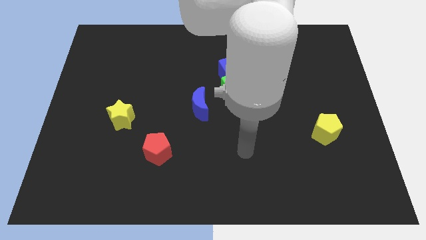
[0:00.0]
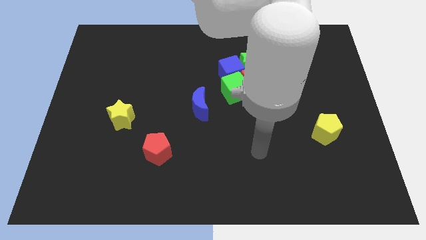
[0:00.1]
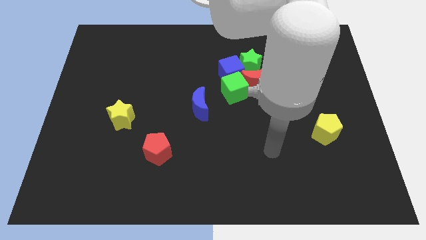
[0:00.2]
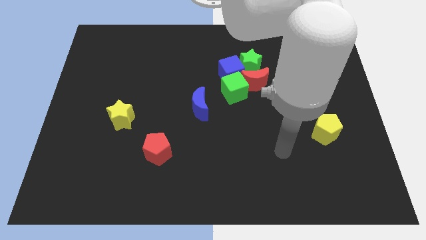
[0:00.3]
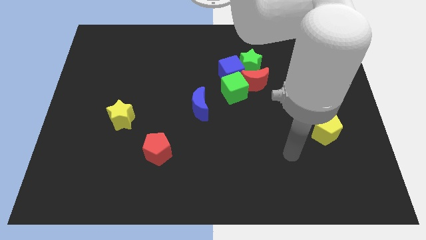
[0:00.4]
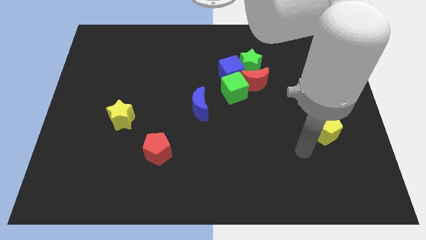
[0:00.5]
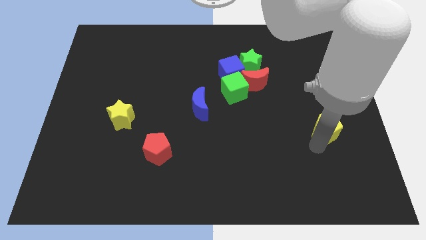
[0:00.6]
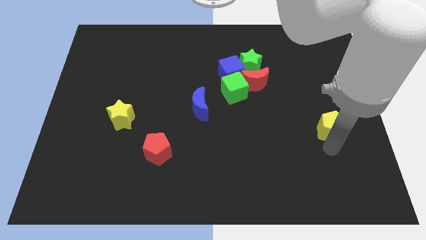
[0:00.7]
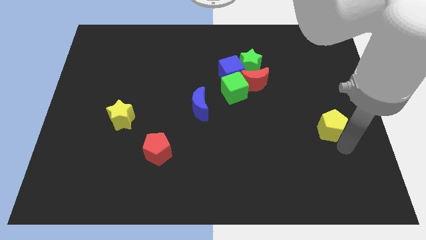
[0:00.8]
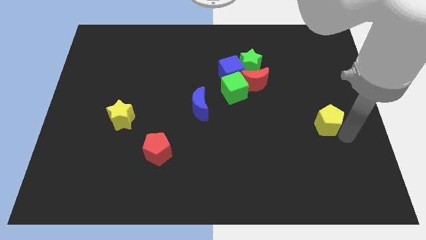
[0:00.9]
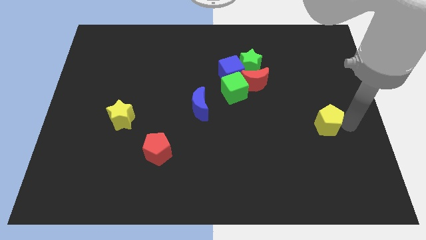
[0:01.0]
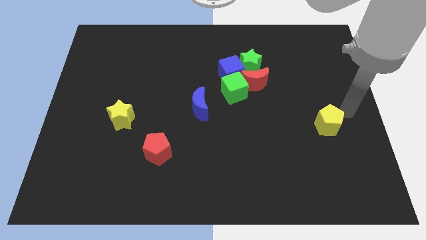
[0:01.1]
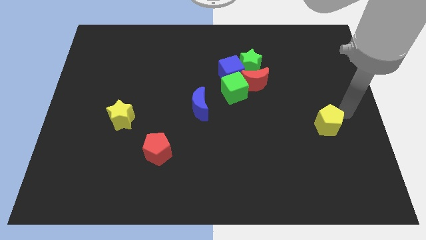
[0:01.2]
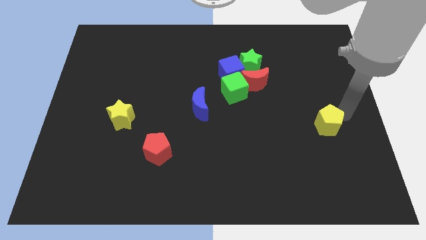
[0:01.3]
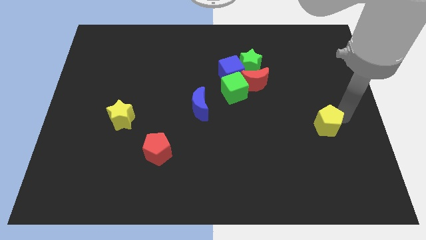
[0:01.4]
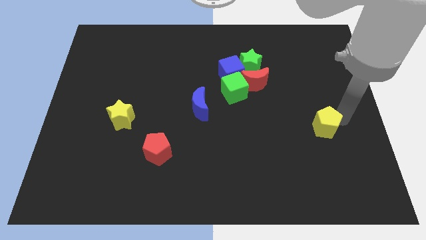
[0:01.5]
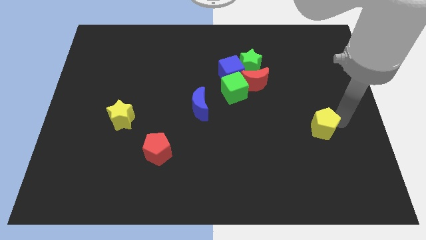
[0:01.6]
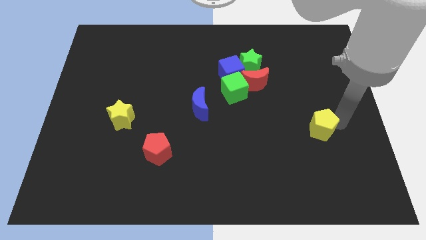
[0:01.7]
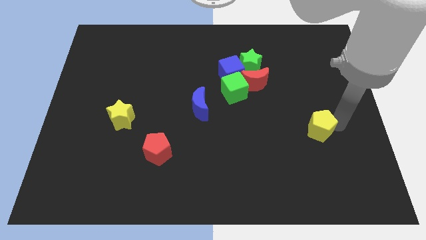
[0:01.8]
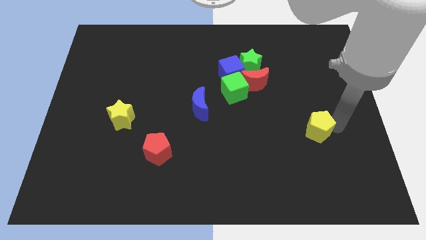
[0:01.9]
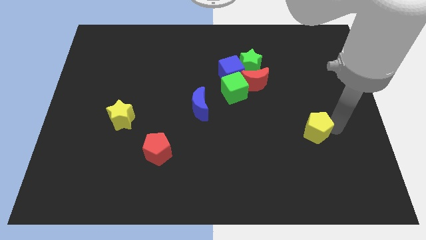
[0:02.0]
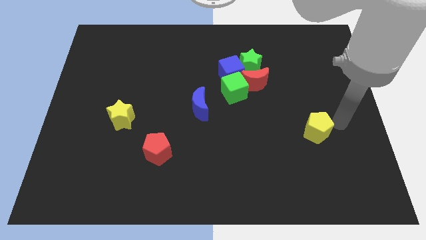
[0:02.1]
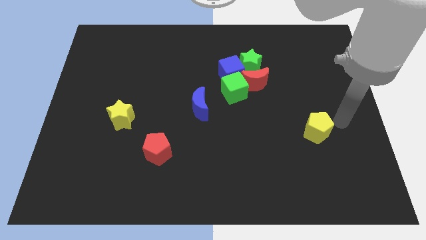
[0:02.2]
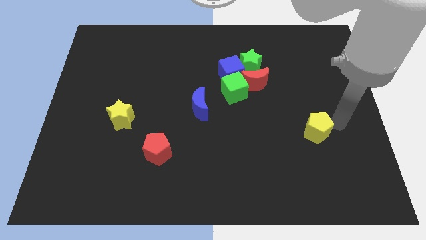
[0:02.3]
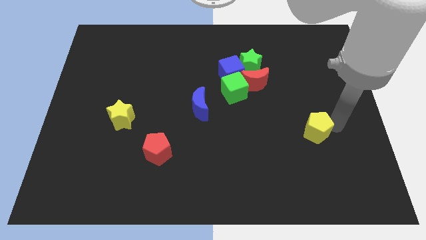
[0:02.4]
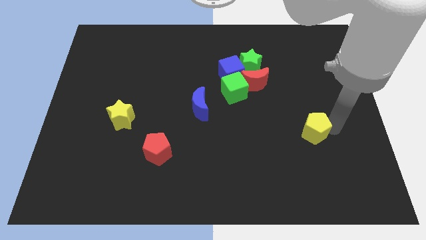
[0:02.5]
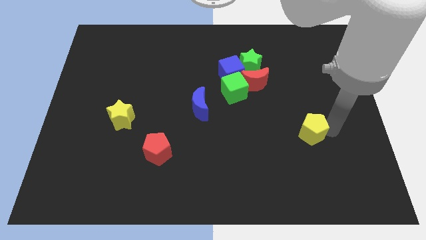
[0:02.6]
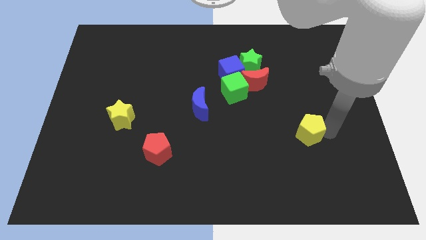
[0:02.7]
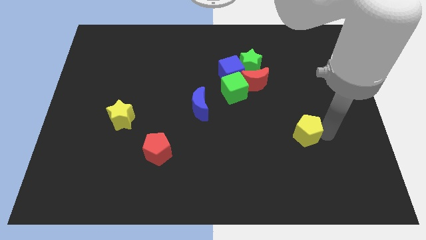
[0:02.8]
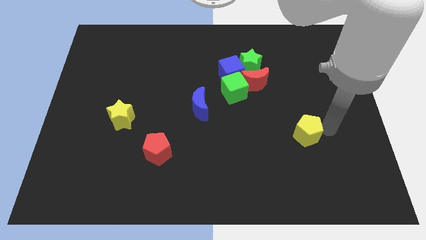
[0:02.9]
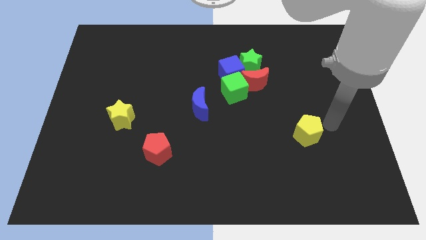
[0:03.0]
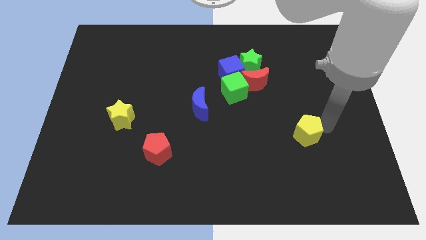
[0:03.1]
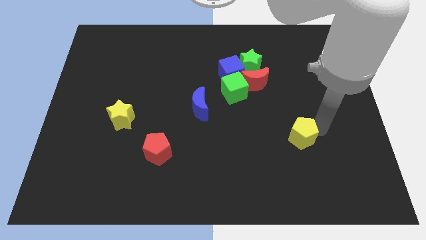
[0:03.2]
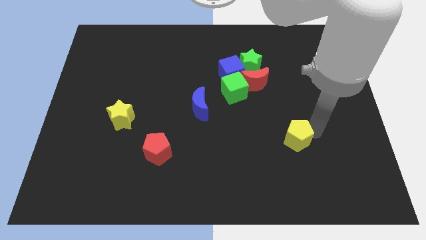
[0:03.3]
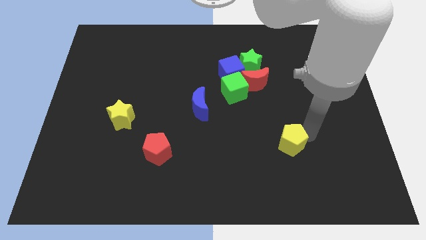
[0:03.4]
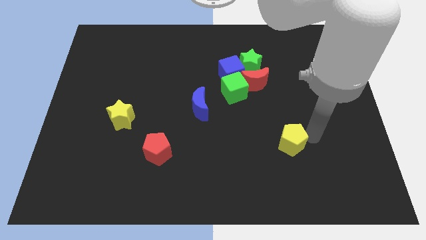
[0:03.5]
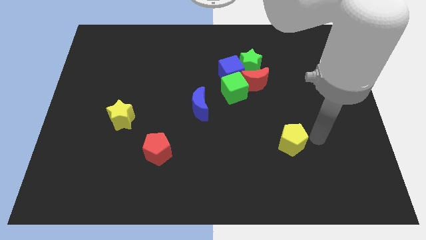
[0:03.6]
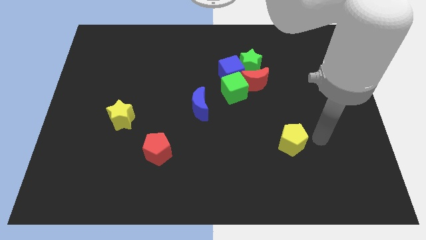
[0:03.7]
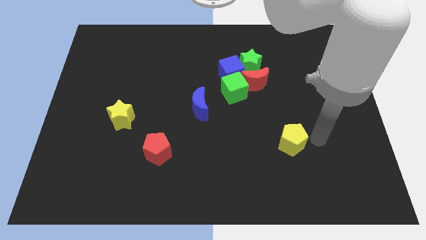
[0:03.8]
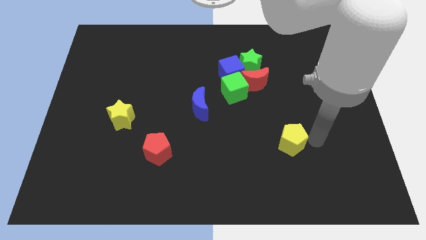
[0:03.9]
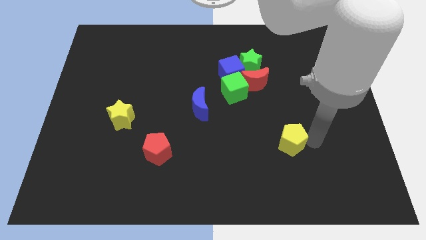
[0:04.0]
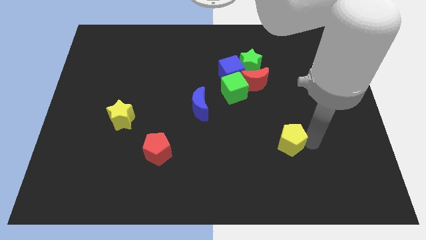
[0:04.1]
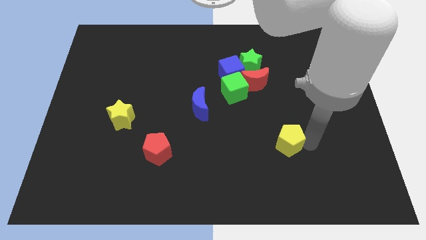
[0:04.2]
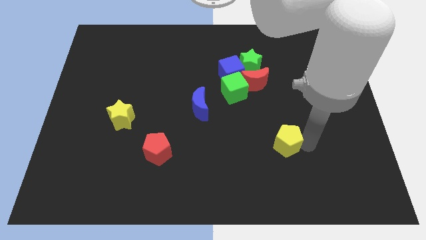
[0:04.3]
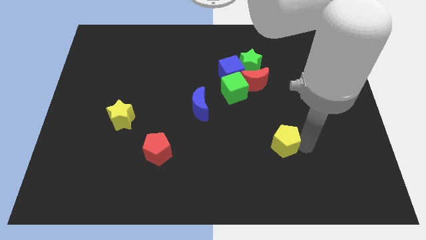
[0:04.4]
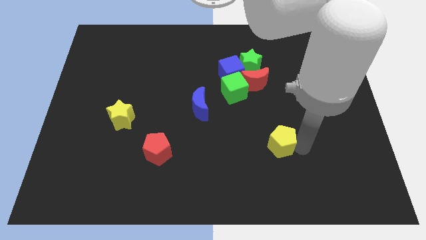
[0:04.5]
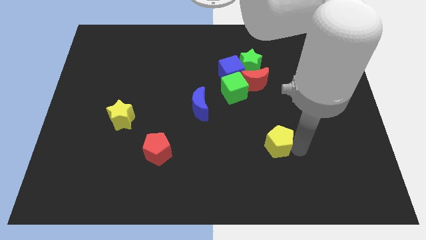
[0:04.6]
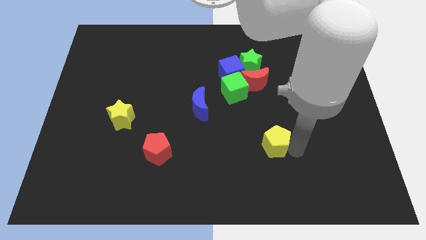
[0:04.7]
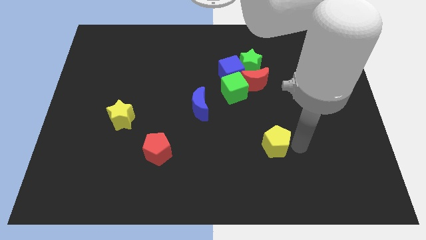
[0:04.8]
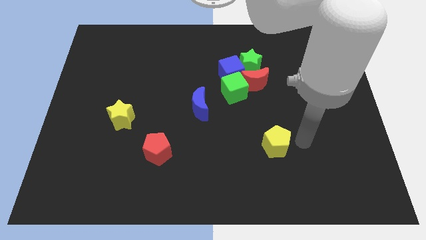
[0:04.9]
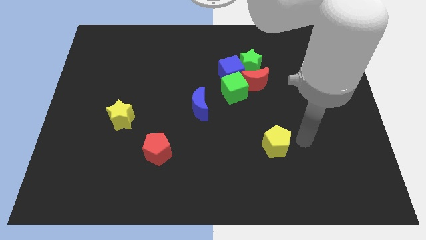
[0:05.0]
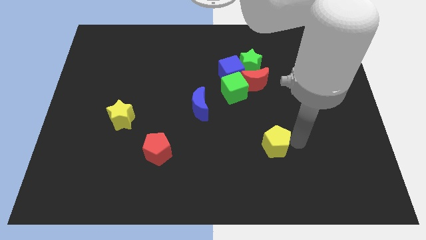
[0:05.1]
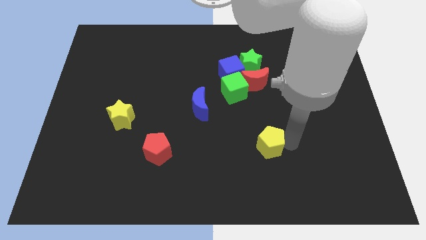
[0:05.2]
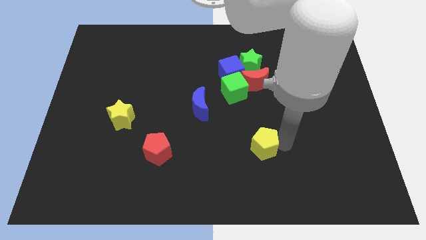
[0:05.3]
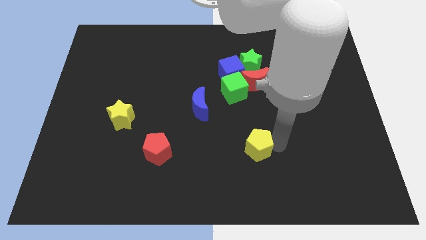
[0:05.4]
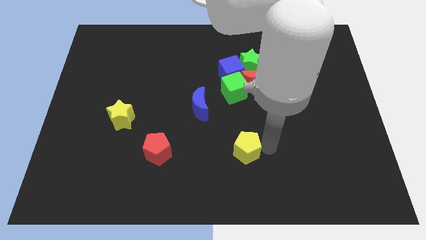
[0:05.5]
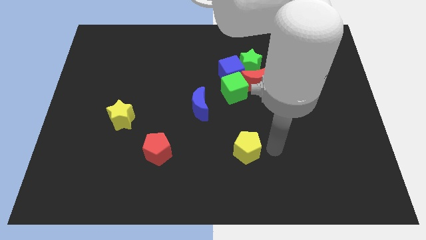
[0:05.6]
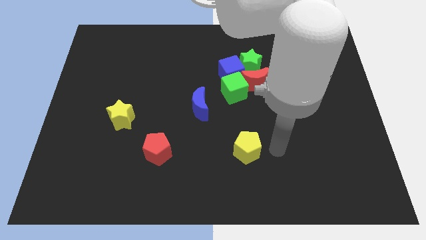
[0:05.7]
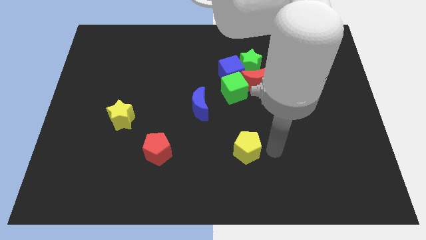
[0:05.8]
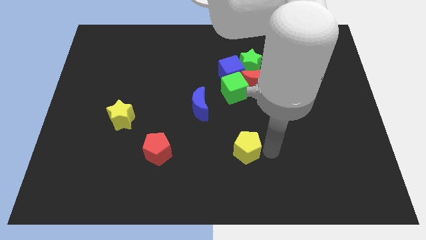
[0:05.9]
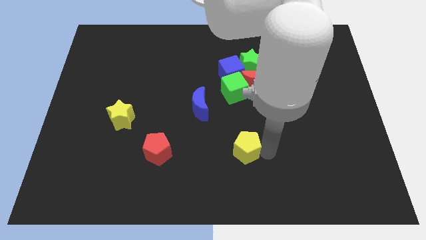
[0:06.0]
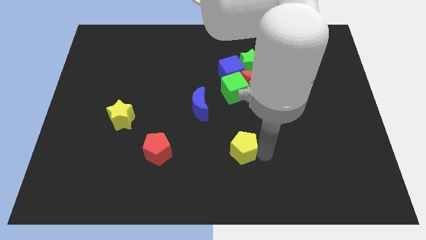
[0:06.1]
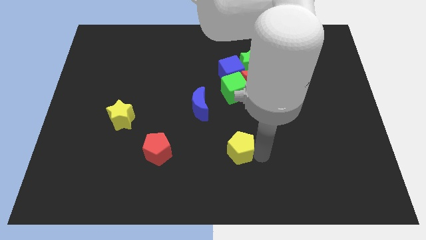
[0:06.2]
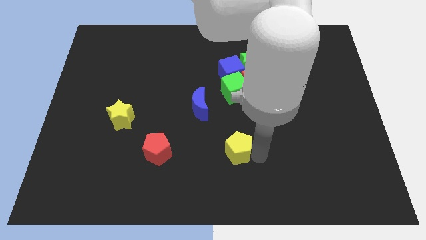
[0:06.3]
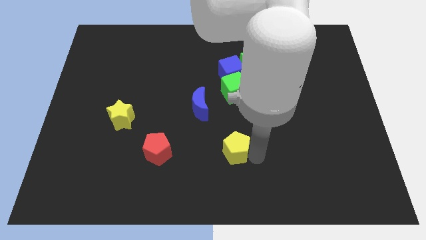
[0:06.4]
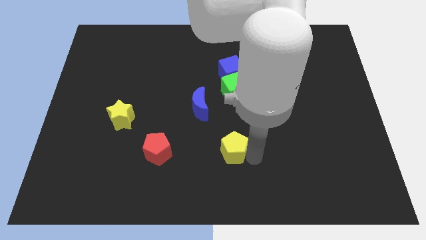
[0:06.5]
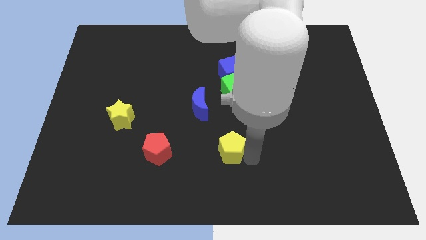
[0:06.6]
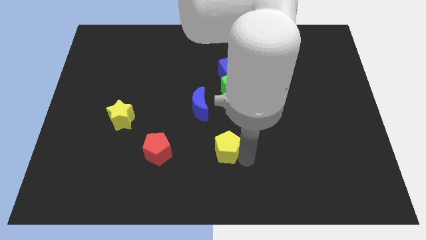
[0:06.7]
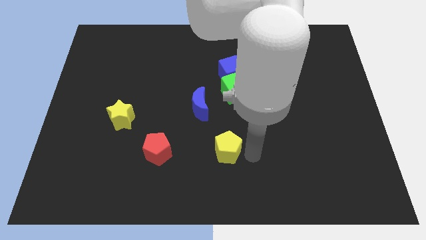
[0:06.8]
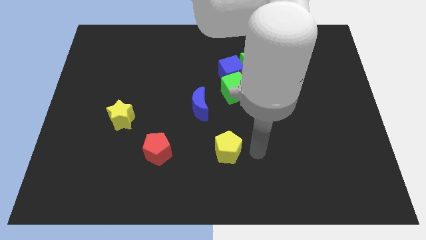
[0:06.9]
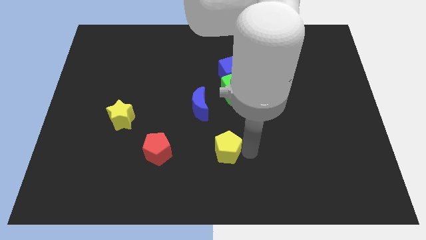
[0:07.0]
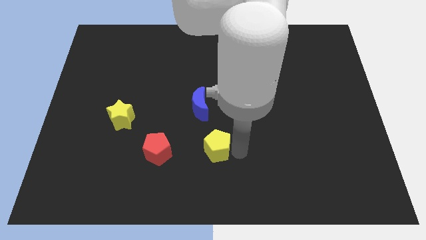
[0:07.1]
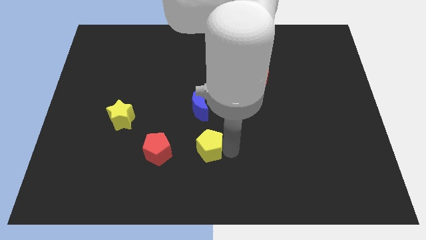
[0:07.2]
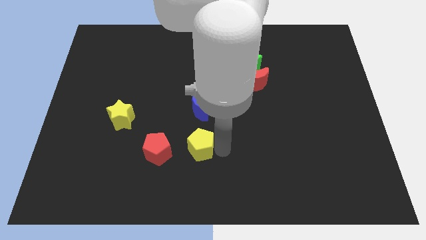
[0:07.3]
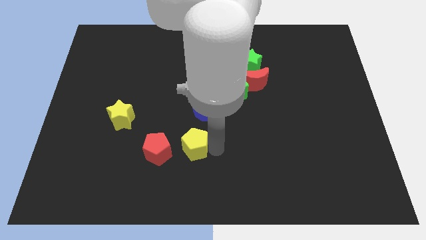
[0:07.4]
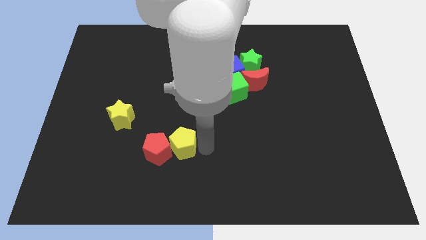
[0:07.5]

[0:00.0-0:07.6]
put the yellow pentagon next to the red pentagon

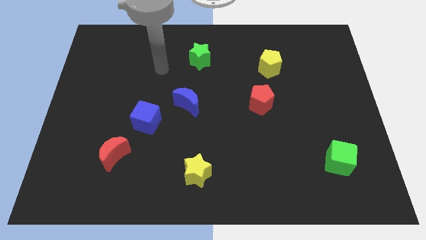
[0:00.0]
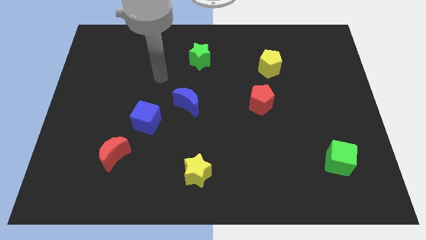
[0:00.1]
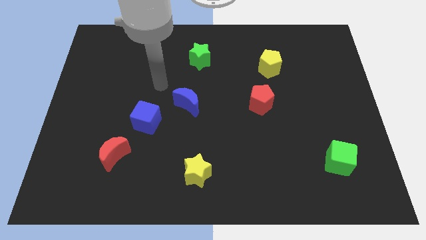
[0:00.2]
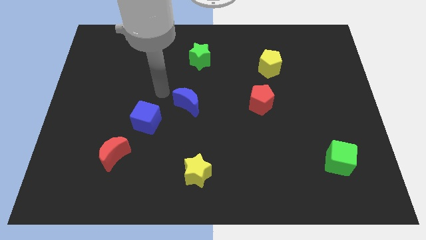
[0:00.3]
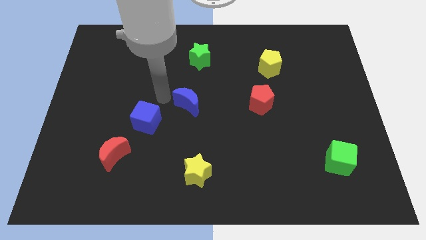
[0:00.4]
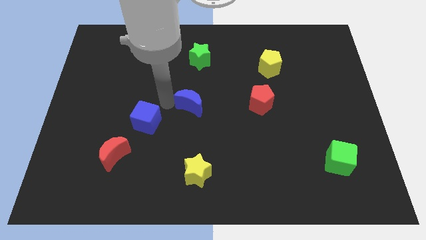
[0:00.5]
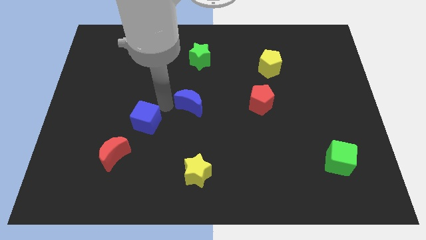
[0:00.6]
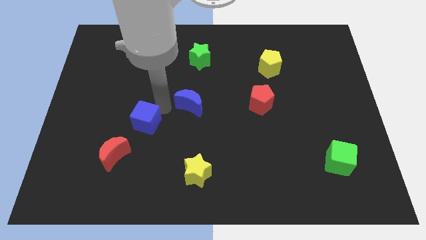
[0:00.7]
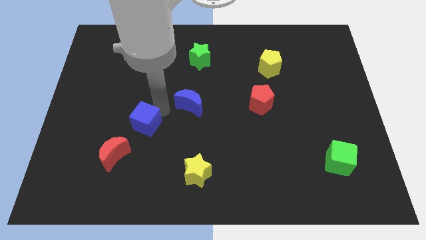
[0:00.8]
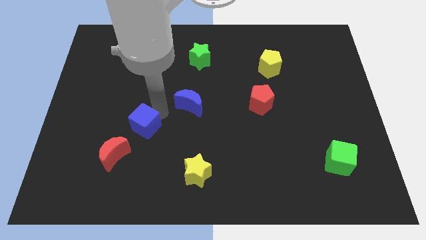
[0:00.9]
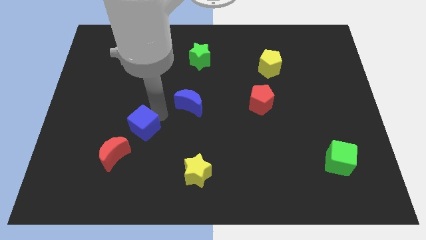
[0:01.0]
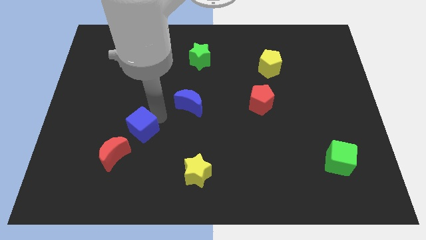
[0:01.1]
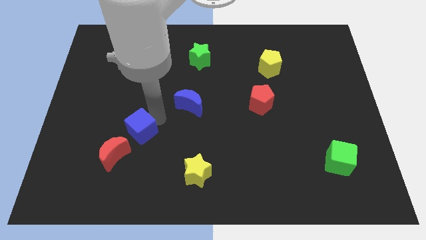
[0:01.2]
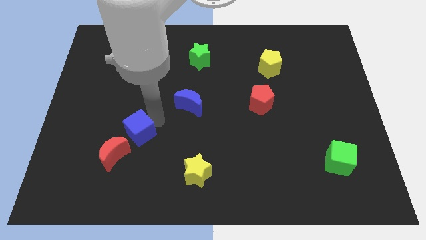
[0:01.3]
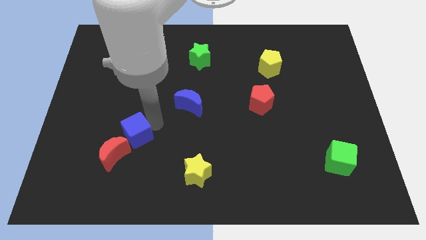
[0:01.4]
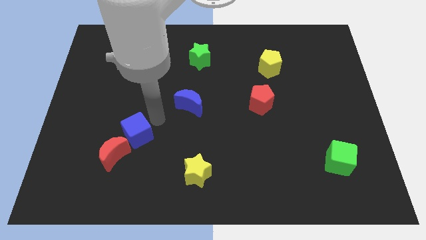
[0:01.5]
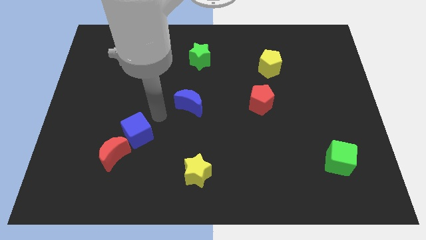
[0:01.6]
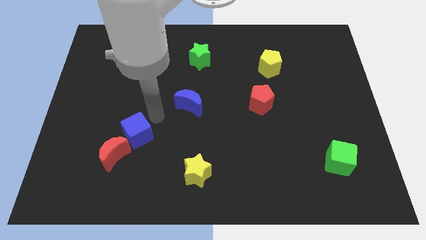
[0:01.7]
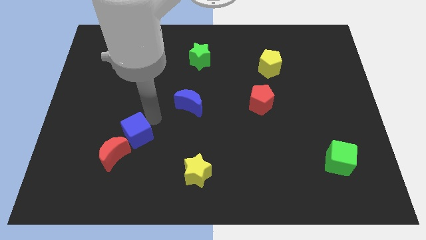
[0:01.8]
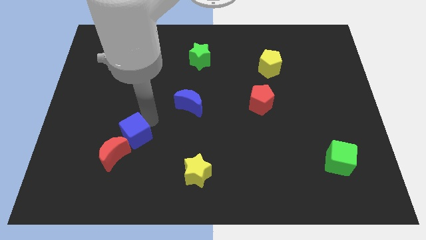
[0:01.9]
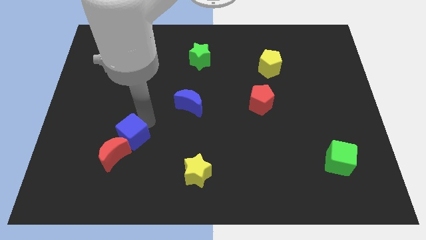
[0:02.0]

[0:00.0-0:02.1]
push the blue cube next to the red moon
